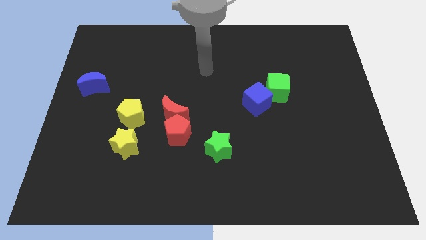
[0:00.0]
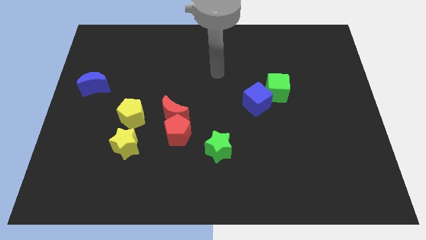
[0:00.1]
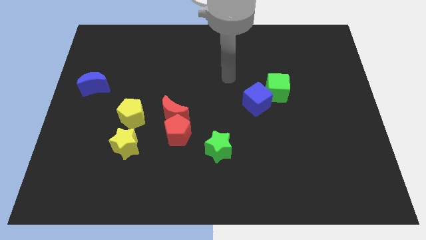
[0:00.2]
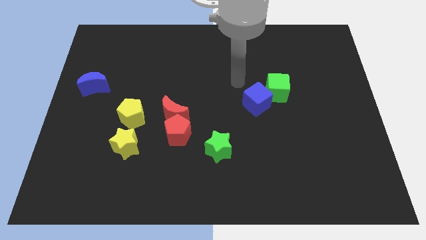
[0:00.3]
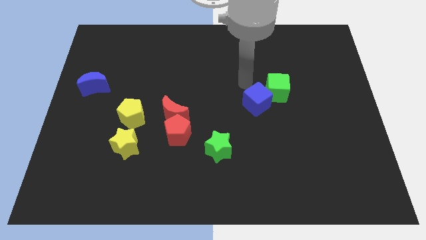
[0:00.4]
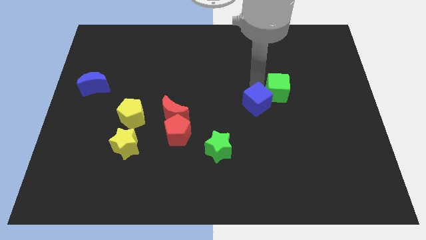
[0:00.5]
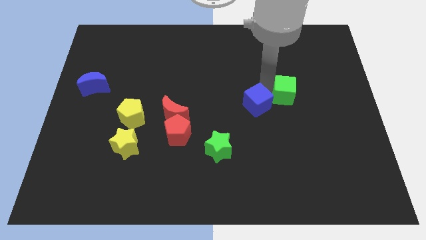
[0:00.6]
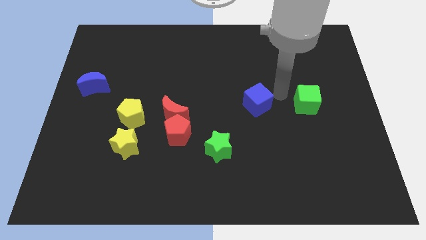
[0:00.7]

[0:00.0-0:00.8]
pull the blue cube apart from the green cube

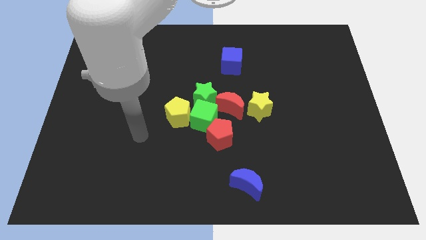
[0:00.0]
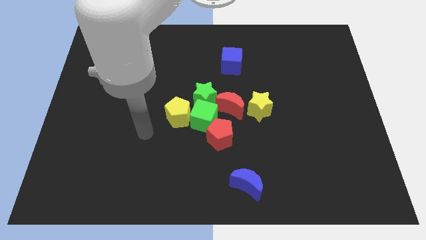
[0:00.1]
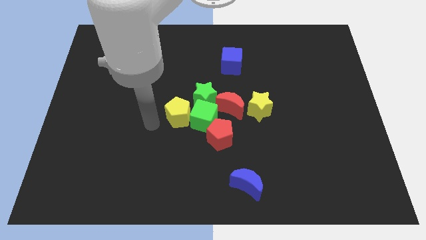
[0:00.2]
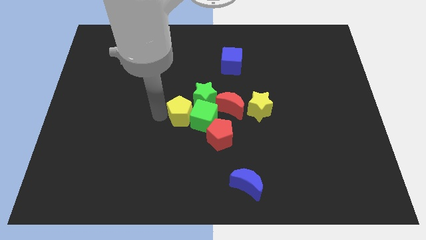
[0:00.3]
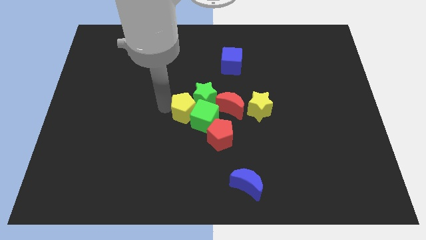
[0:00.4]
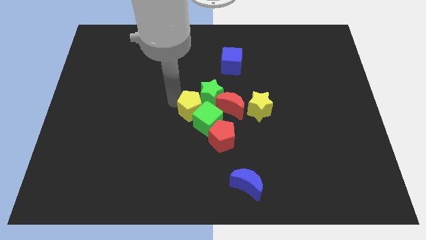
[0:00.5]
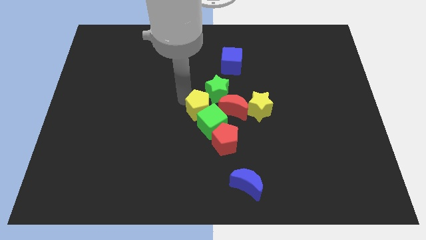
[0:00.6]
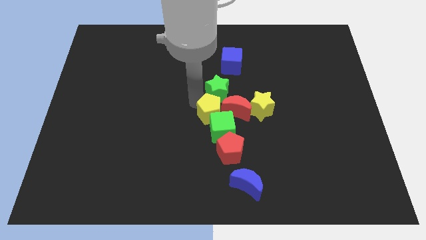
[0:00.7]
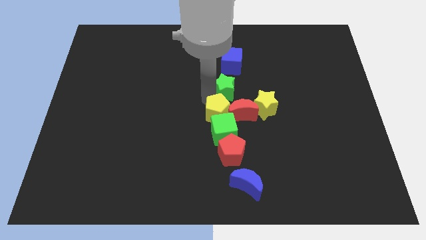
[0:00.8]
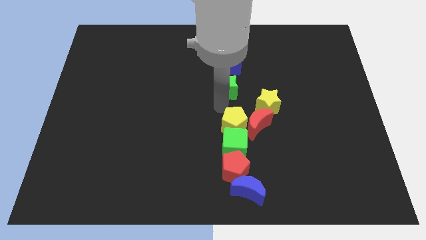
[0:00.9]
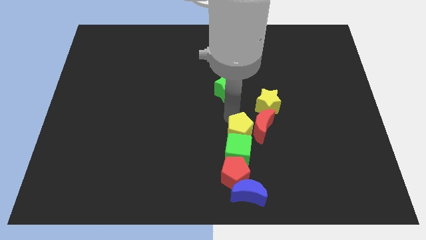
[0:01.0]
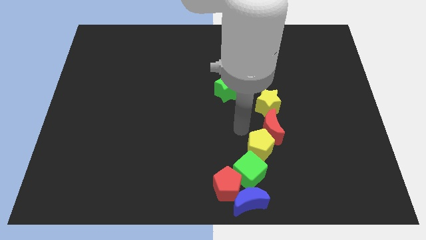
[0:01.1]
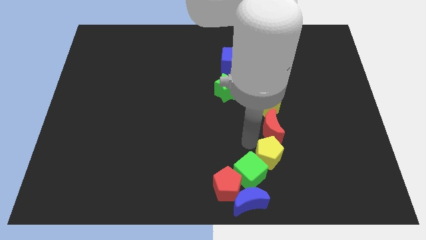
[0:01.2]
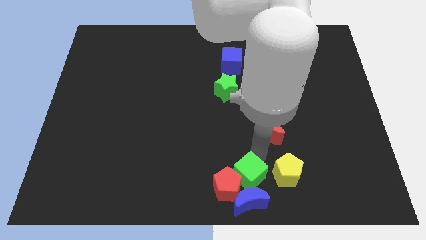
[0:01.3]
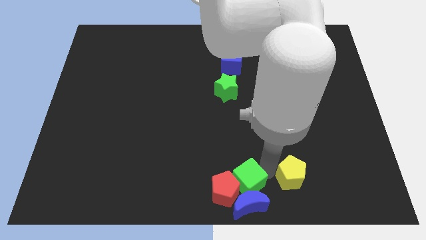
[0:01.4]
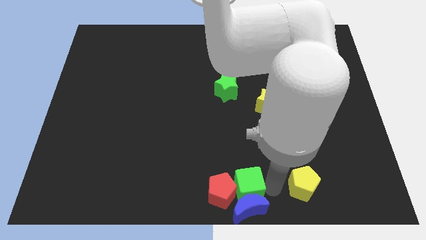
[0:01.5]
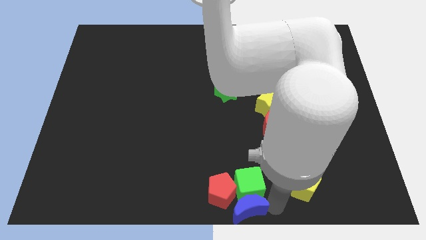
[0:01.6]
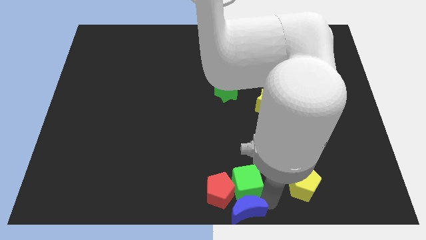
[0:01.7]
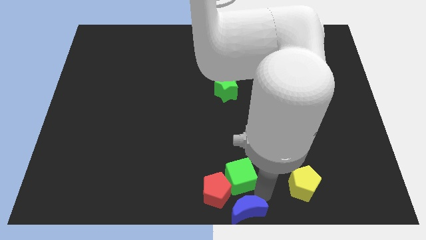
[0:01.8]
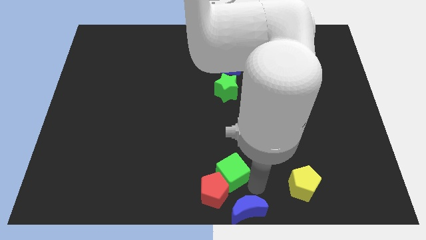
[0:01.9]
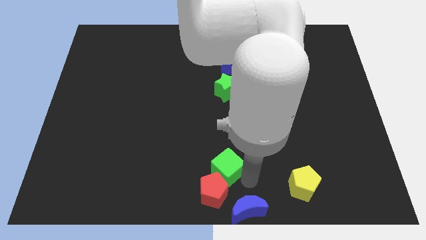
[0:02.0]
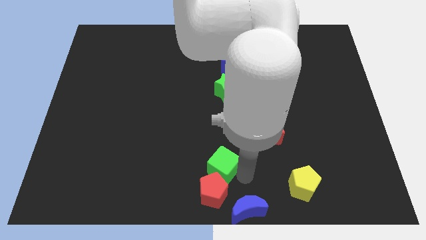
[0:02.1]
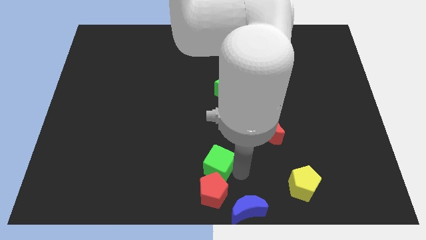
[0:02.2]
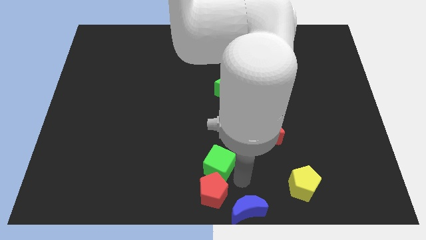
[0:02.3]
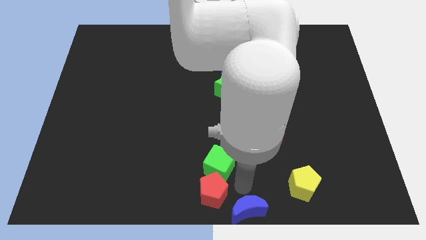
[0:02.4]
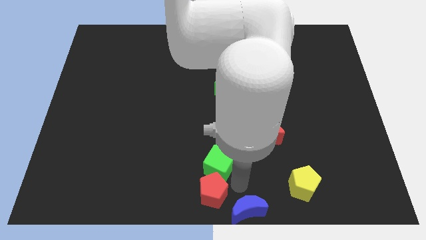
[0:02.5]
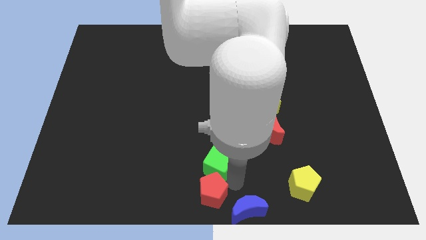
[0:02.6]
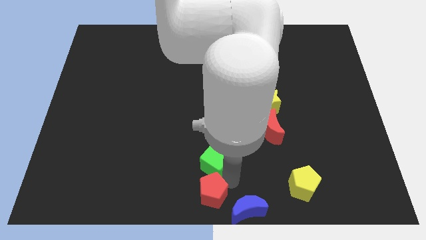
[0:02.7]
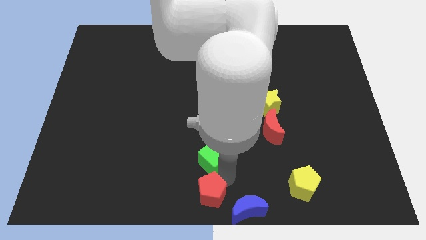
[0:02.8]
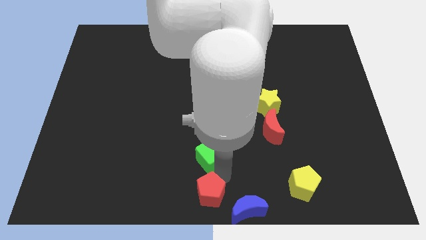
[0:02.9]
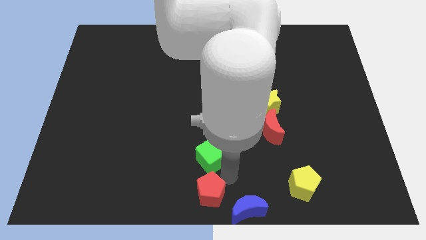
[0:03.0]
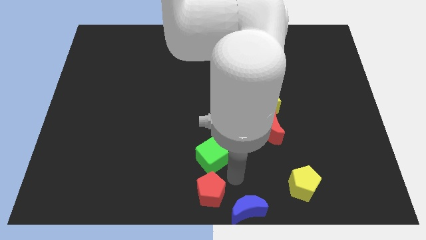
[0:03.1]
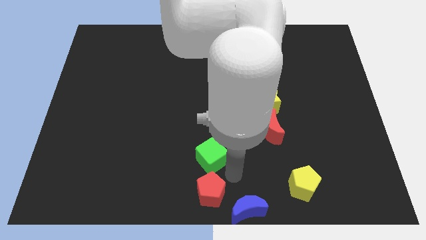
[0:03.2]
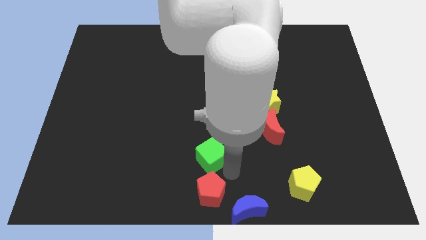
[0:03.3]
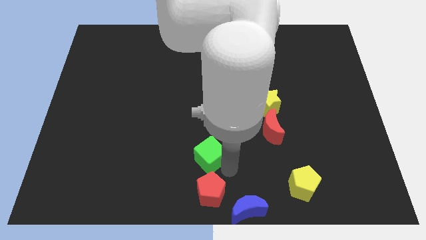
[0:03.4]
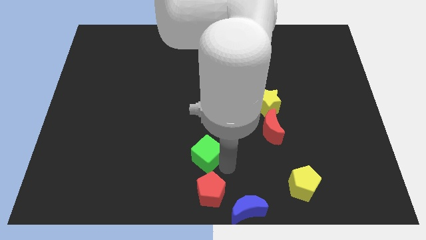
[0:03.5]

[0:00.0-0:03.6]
pull the green cube apart from the group

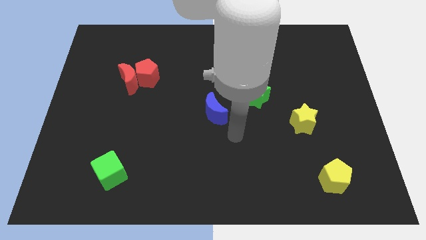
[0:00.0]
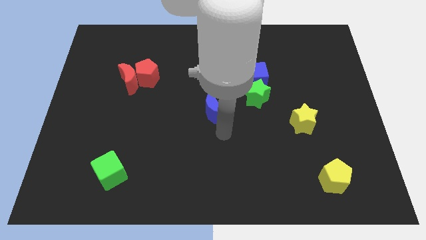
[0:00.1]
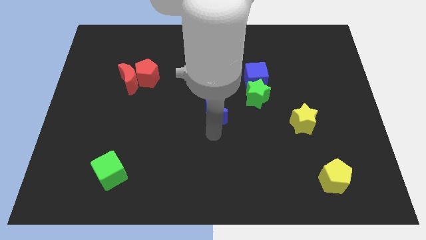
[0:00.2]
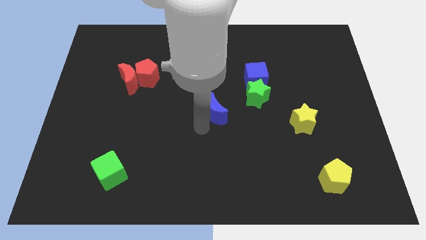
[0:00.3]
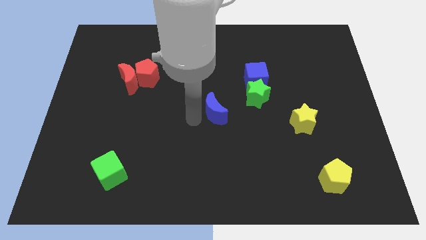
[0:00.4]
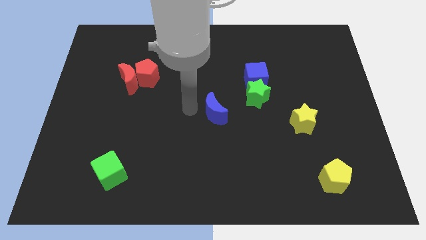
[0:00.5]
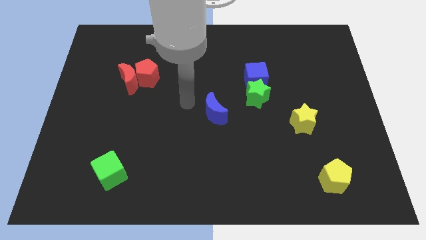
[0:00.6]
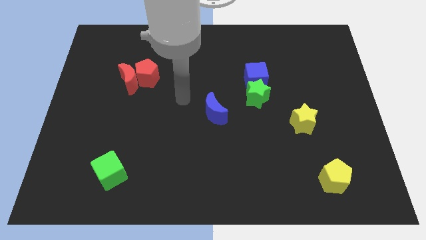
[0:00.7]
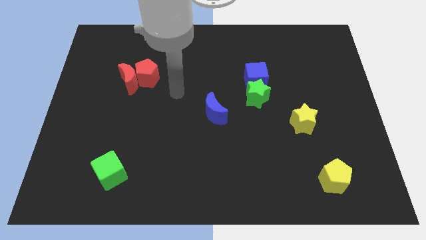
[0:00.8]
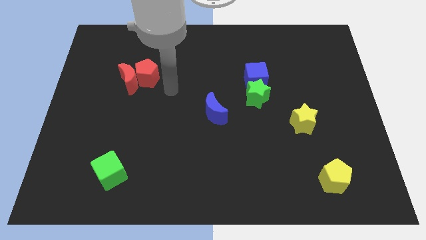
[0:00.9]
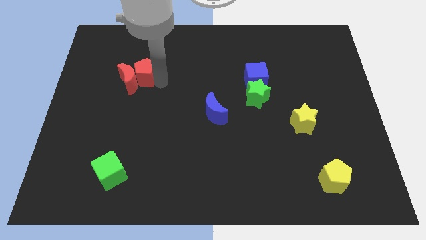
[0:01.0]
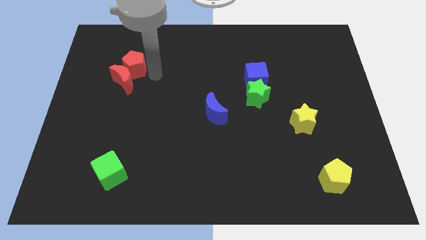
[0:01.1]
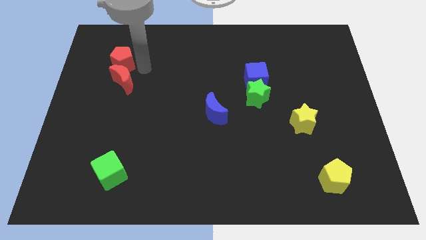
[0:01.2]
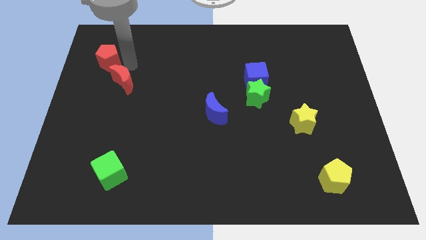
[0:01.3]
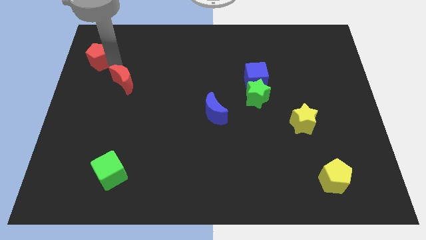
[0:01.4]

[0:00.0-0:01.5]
pull the red moon apart from the red pentagon

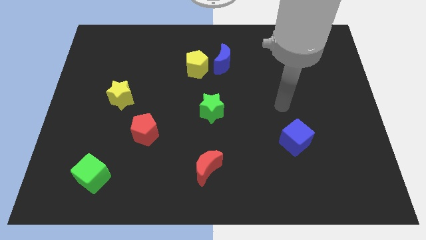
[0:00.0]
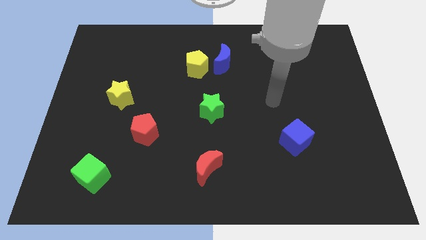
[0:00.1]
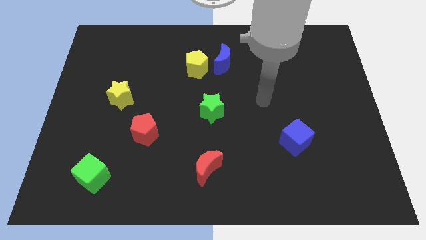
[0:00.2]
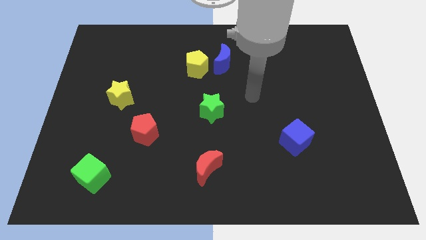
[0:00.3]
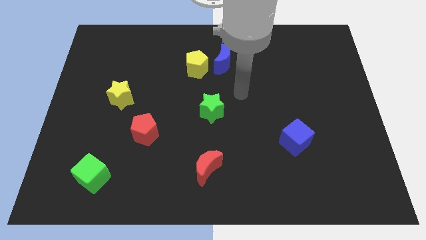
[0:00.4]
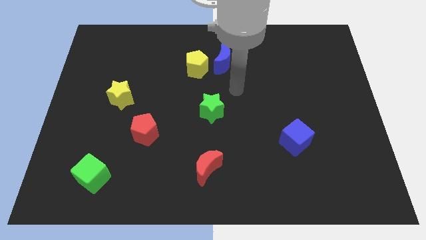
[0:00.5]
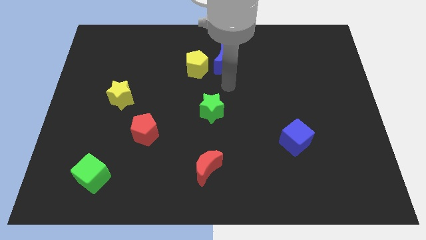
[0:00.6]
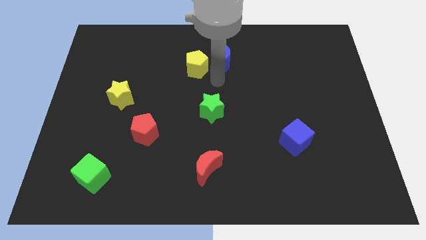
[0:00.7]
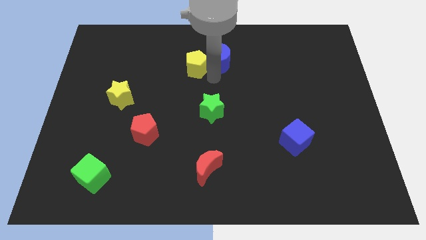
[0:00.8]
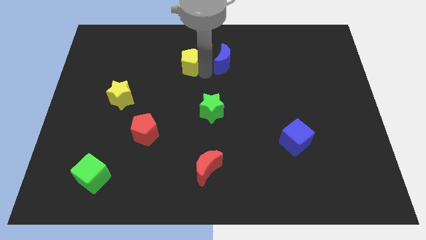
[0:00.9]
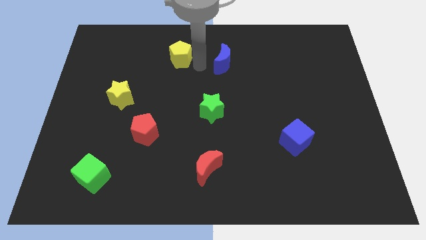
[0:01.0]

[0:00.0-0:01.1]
move the blue moon away from the yellow pentagon

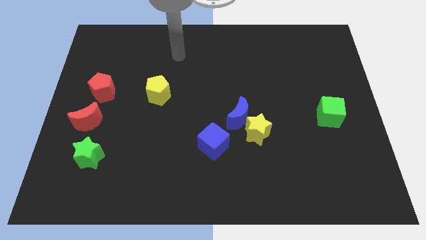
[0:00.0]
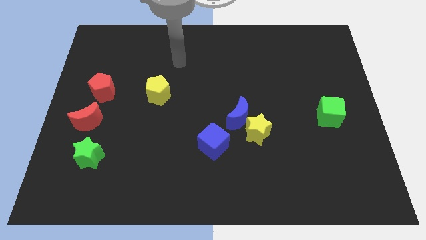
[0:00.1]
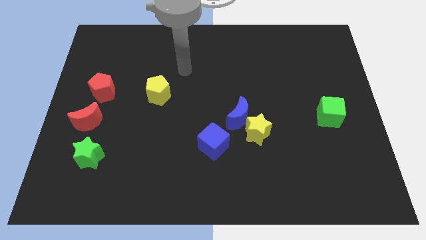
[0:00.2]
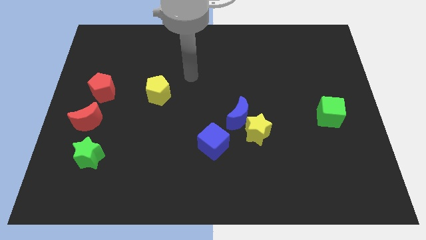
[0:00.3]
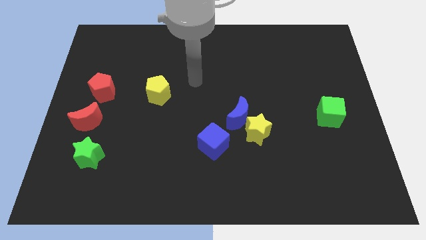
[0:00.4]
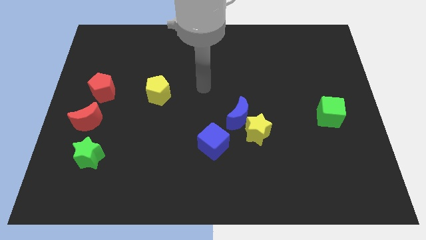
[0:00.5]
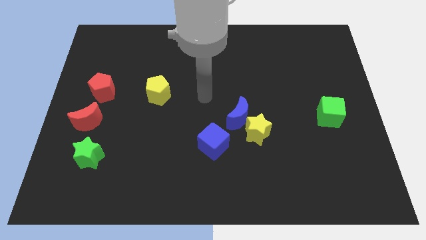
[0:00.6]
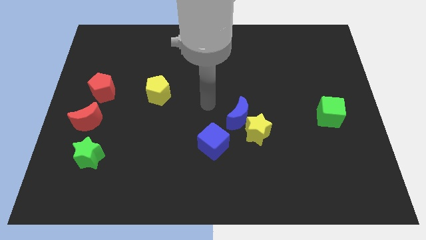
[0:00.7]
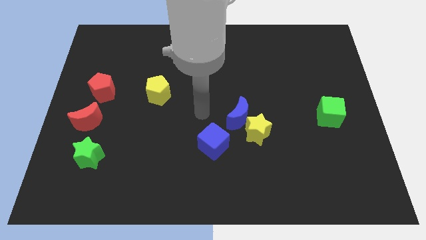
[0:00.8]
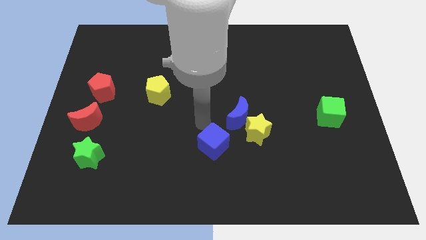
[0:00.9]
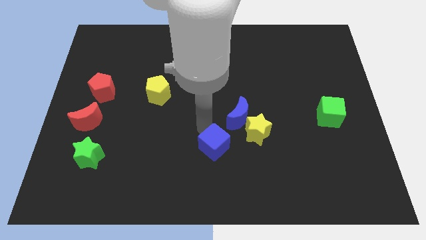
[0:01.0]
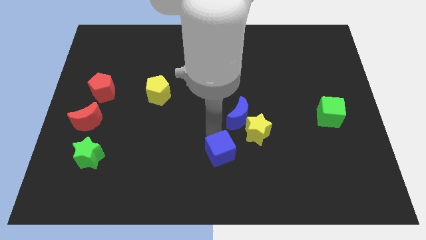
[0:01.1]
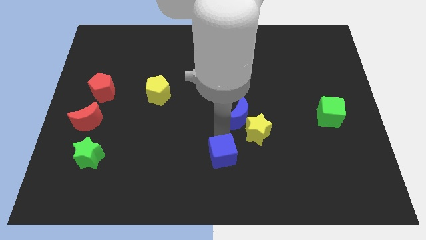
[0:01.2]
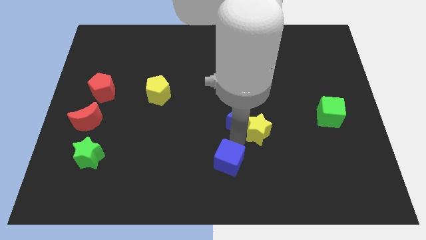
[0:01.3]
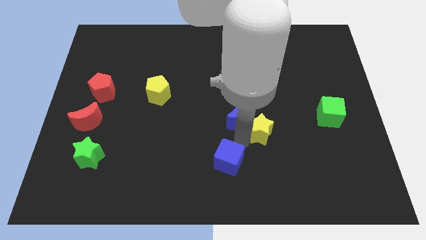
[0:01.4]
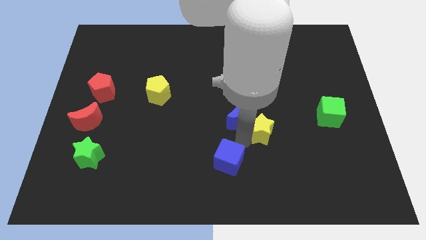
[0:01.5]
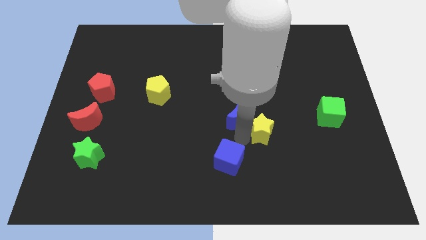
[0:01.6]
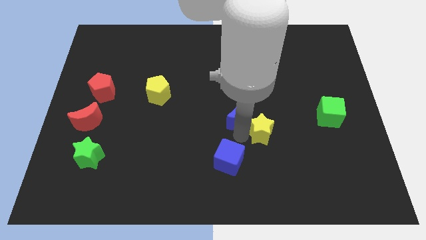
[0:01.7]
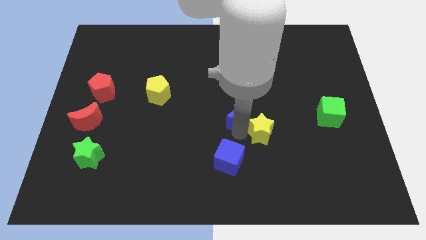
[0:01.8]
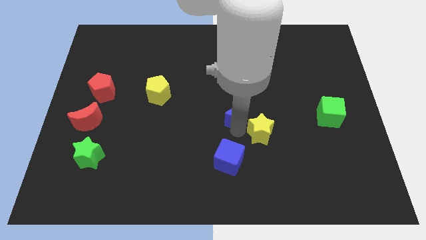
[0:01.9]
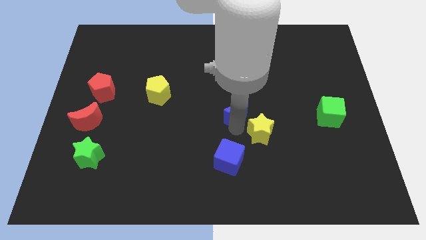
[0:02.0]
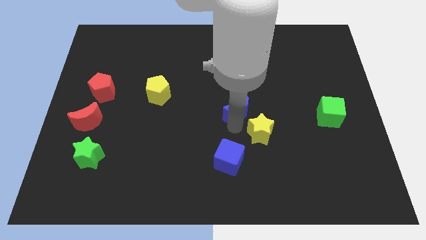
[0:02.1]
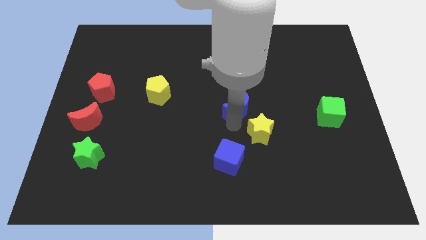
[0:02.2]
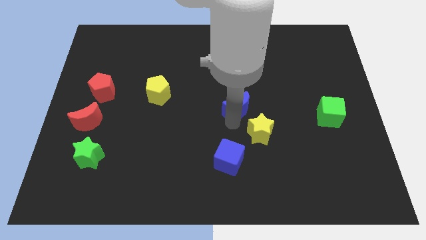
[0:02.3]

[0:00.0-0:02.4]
separate the blue moon from the yellow star and blue cube
